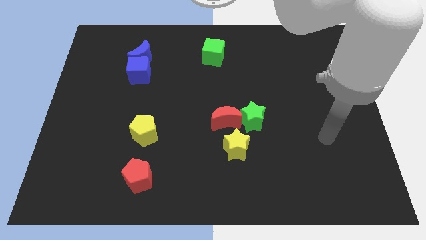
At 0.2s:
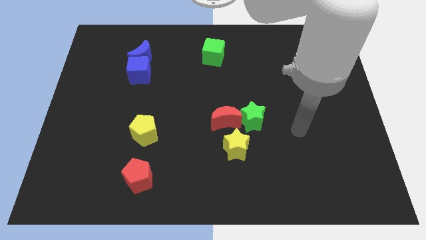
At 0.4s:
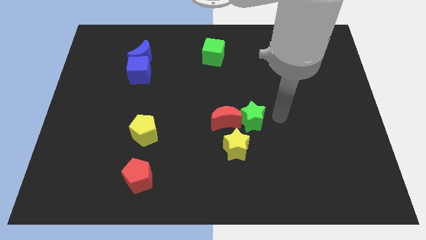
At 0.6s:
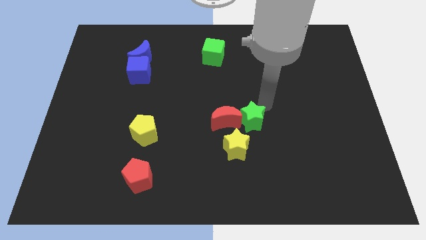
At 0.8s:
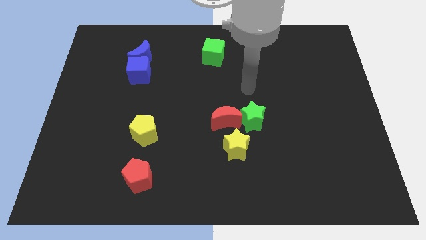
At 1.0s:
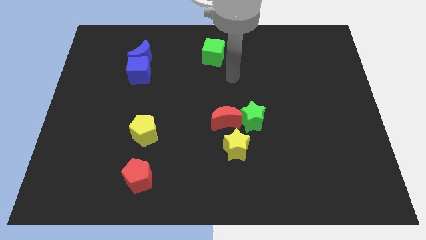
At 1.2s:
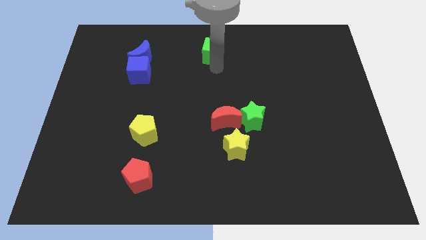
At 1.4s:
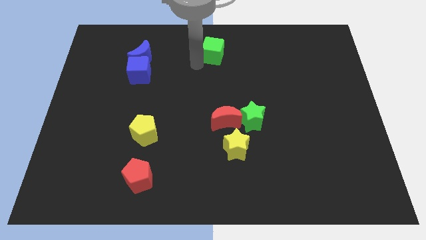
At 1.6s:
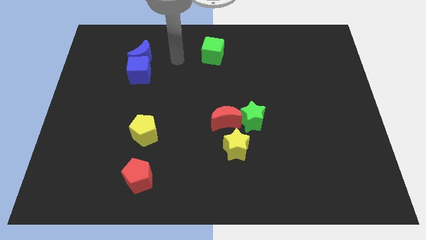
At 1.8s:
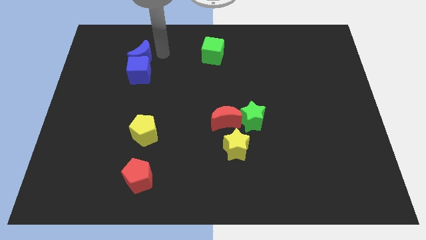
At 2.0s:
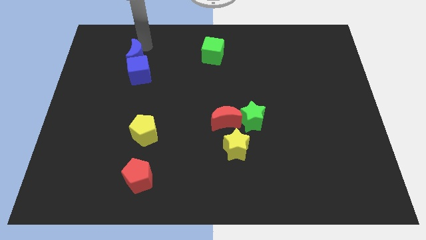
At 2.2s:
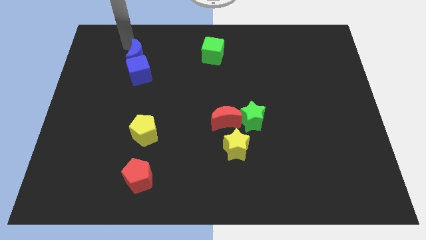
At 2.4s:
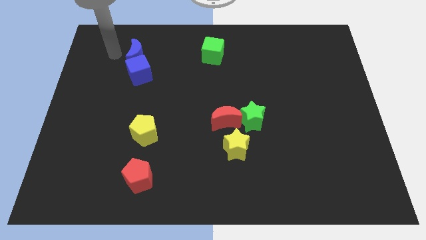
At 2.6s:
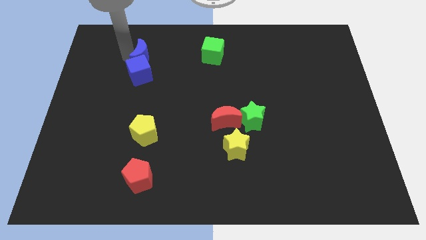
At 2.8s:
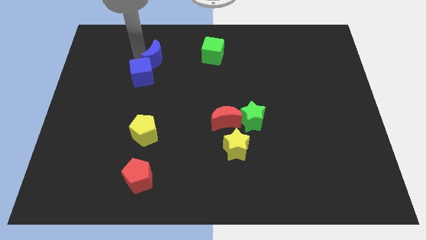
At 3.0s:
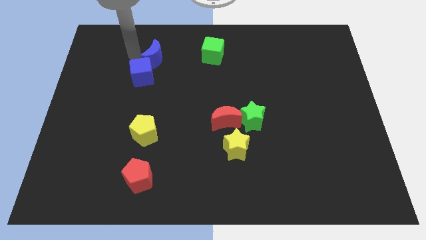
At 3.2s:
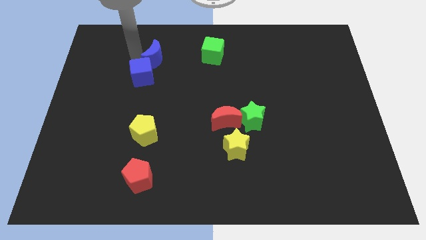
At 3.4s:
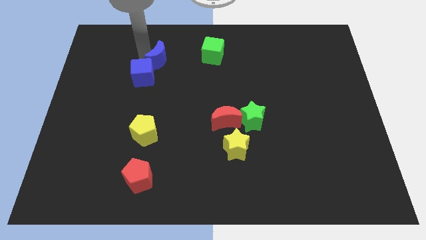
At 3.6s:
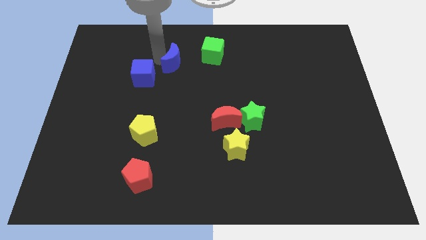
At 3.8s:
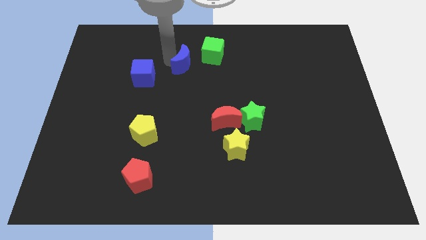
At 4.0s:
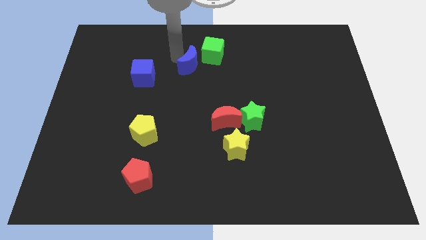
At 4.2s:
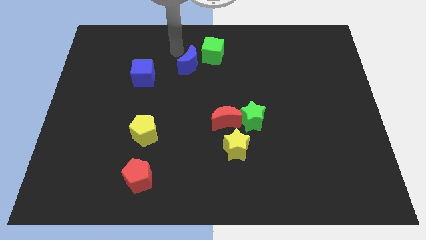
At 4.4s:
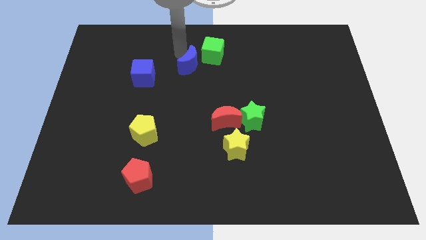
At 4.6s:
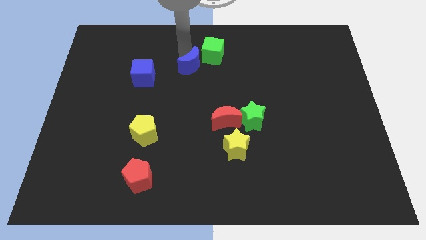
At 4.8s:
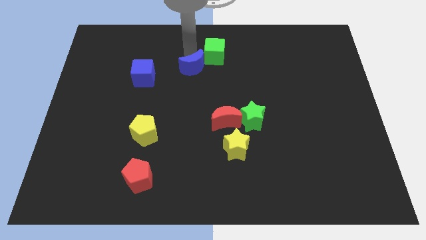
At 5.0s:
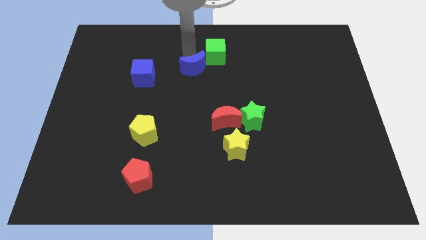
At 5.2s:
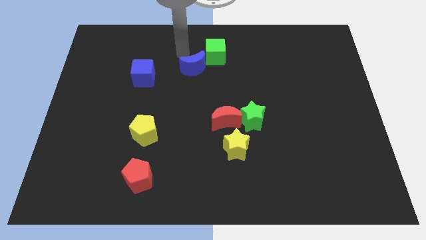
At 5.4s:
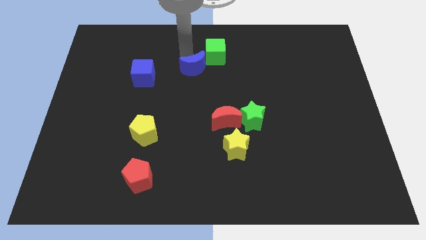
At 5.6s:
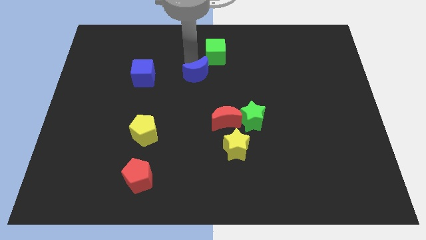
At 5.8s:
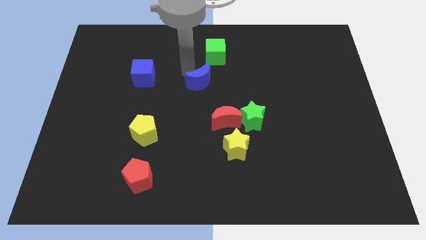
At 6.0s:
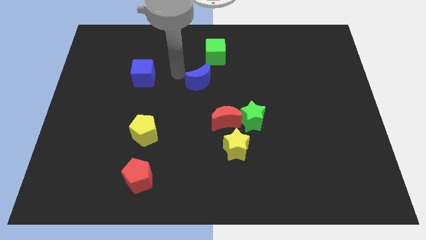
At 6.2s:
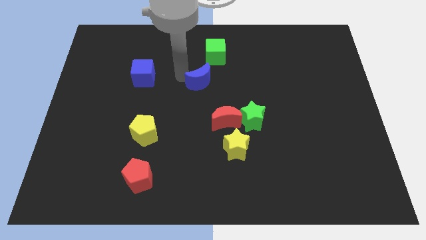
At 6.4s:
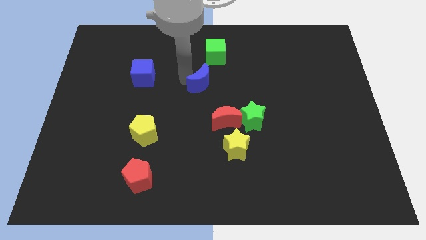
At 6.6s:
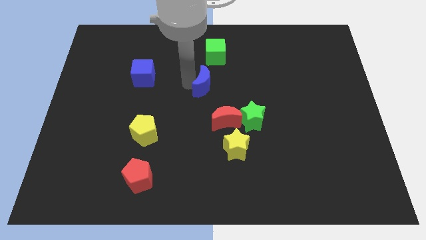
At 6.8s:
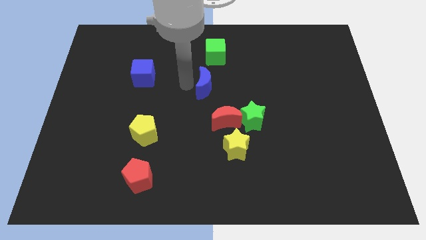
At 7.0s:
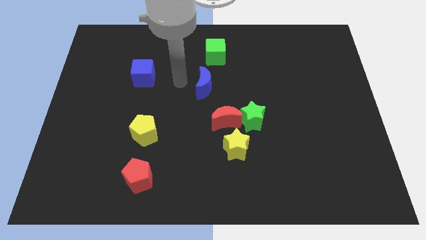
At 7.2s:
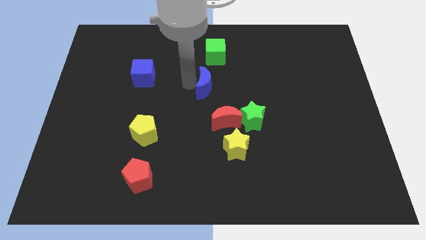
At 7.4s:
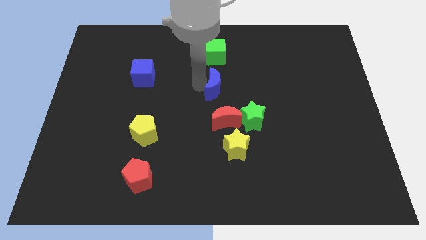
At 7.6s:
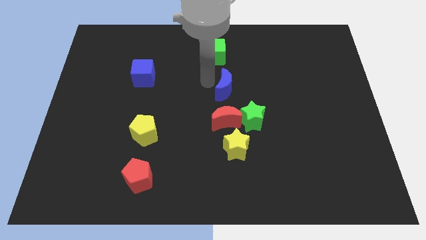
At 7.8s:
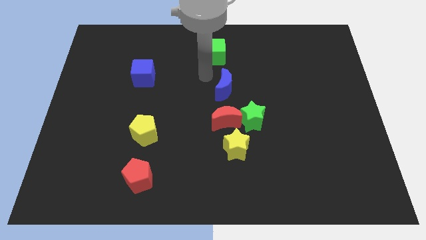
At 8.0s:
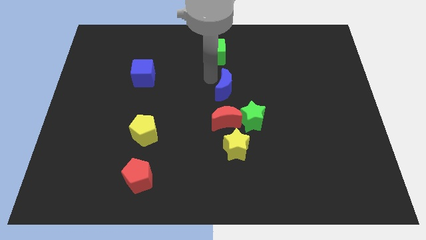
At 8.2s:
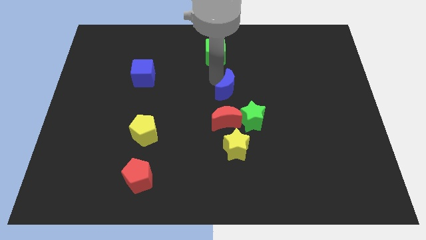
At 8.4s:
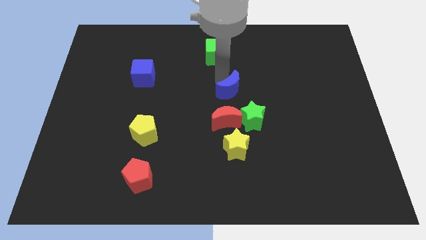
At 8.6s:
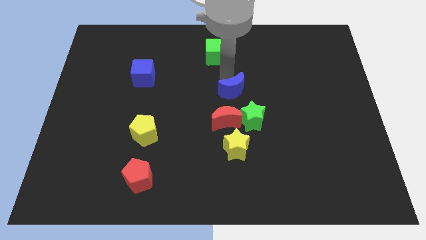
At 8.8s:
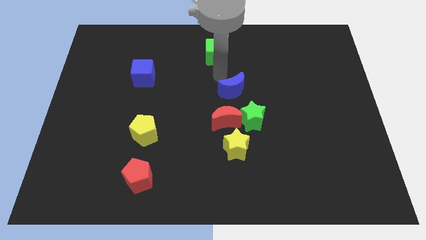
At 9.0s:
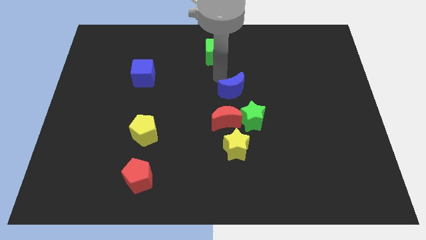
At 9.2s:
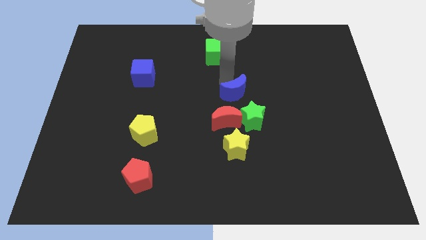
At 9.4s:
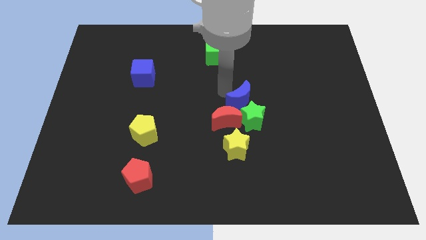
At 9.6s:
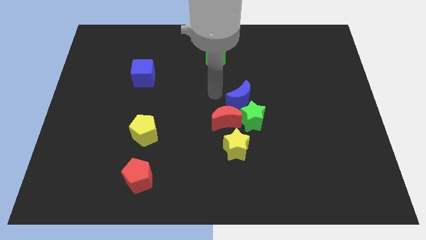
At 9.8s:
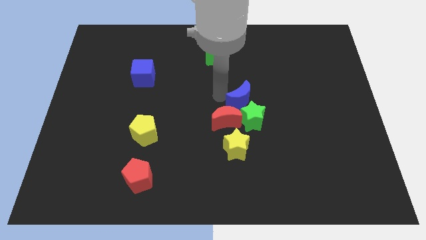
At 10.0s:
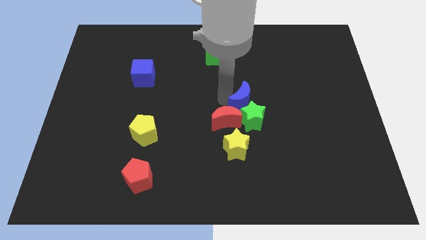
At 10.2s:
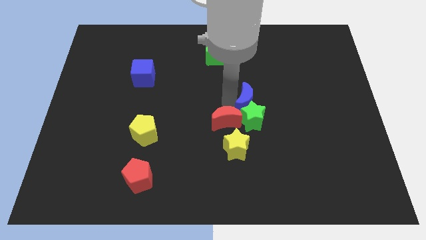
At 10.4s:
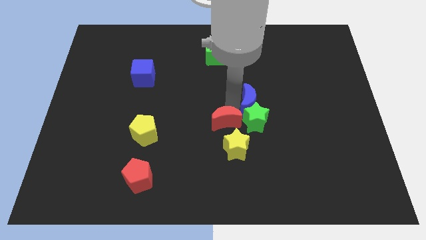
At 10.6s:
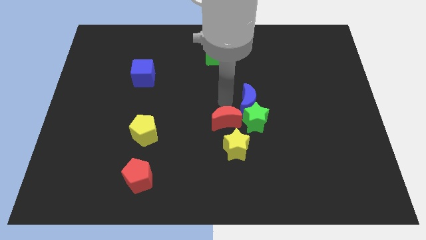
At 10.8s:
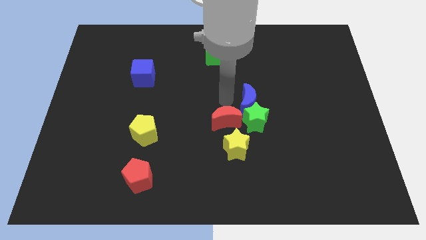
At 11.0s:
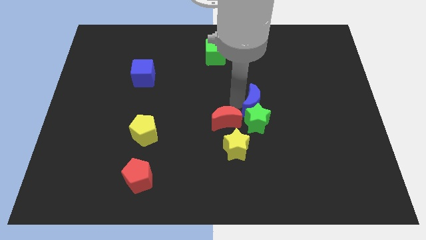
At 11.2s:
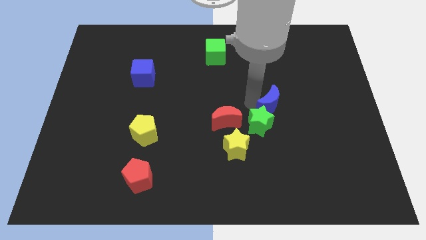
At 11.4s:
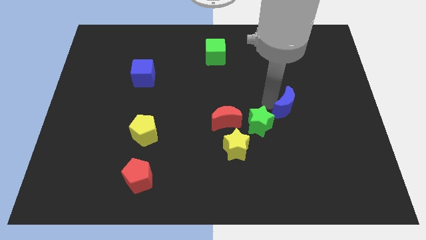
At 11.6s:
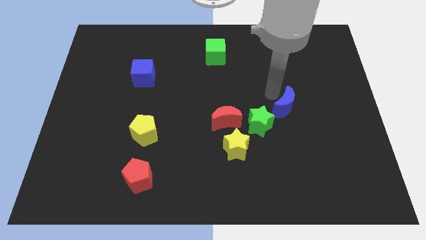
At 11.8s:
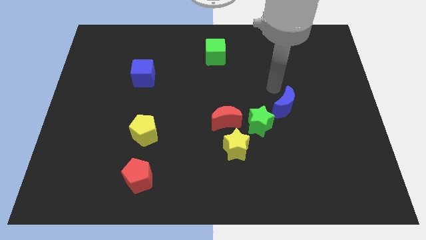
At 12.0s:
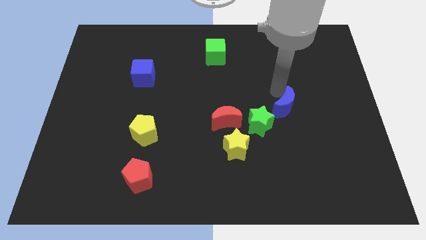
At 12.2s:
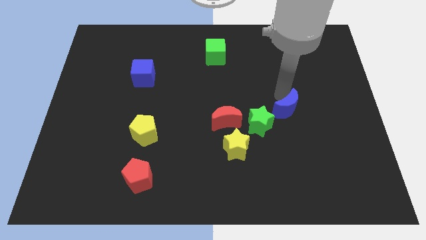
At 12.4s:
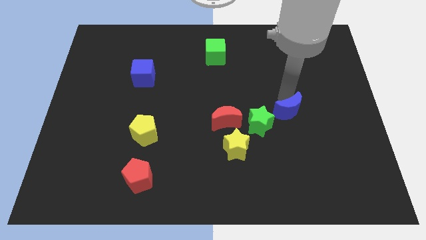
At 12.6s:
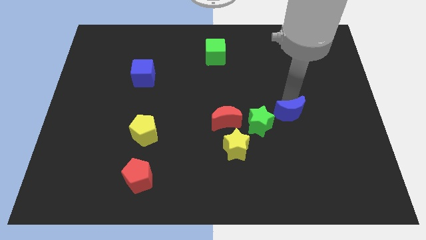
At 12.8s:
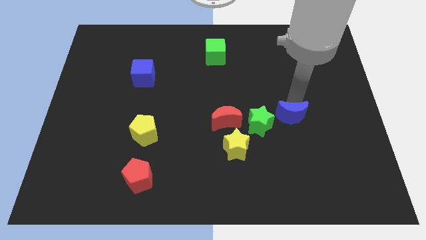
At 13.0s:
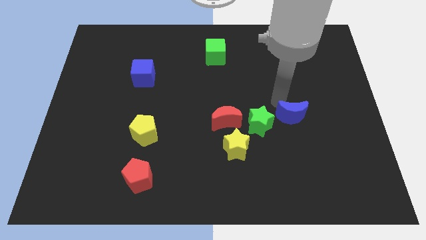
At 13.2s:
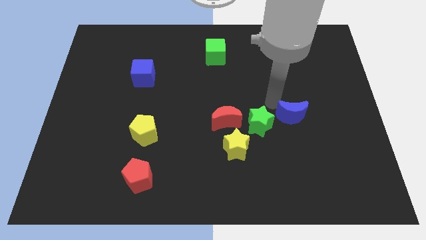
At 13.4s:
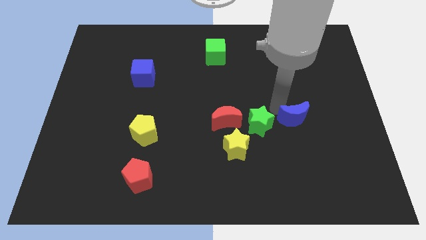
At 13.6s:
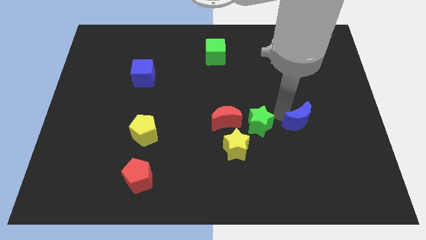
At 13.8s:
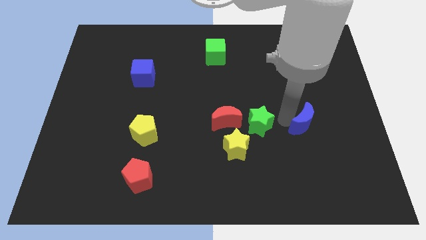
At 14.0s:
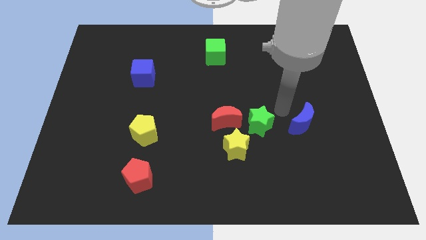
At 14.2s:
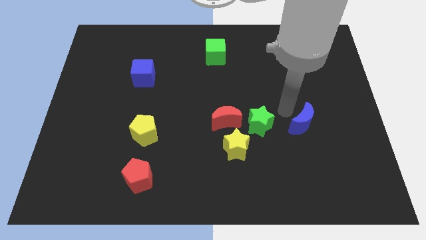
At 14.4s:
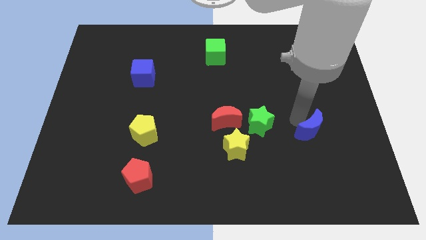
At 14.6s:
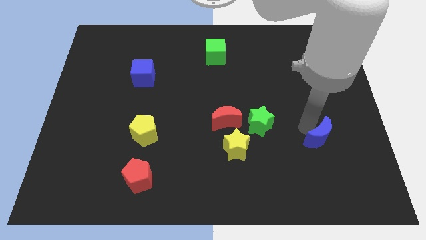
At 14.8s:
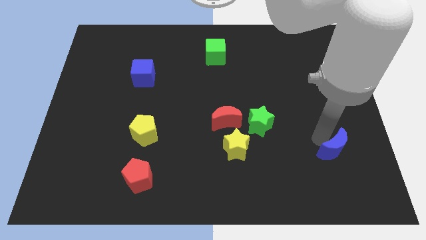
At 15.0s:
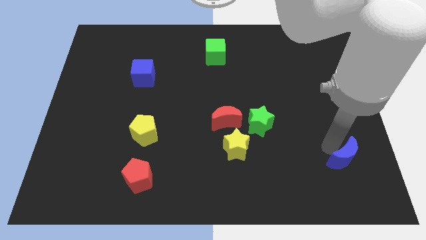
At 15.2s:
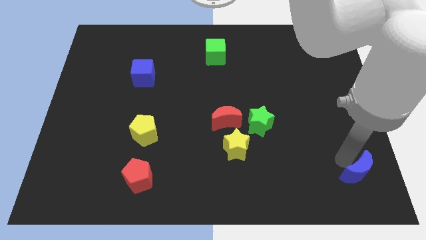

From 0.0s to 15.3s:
put the blue moon to the bottom right
